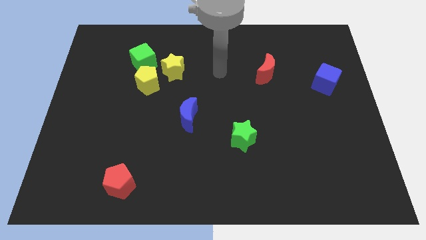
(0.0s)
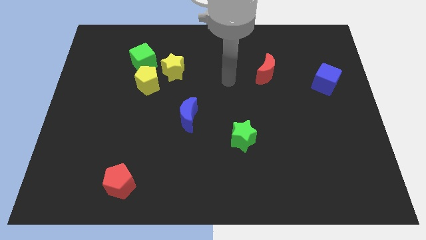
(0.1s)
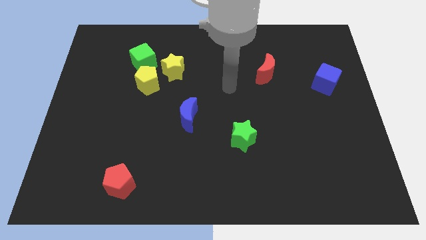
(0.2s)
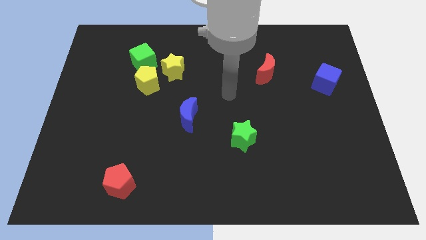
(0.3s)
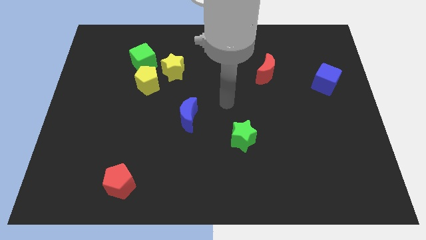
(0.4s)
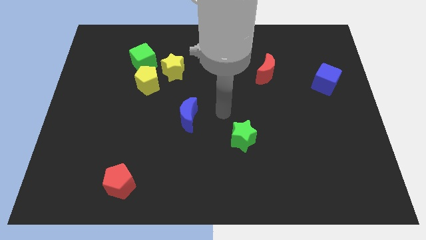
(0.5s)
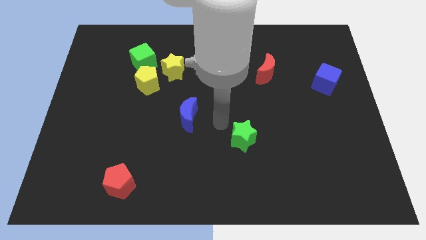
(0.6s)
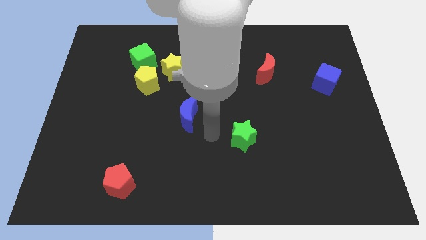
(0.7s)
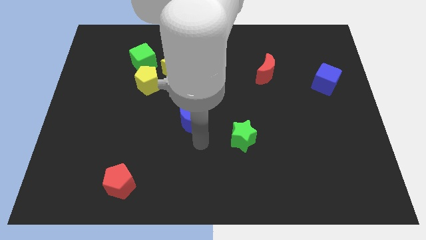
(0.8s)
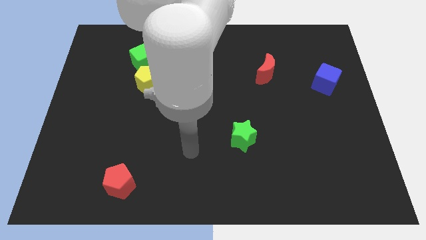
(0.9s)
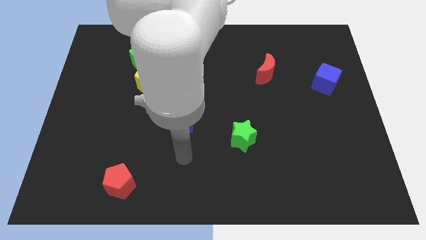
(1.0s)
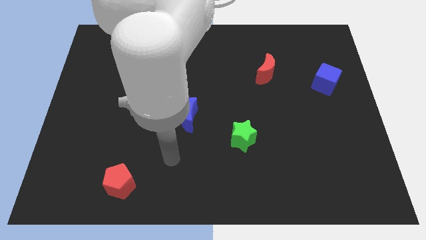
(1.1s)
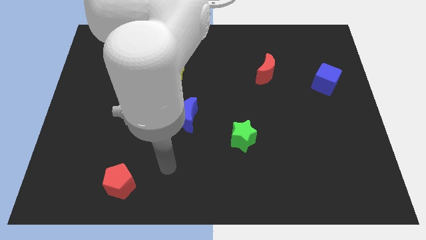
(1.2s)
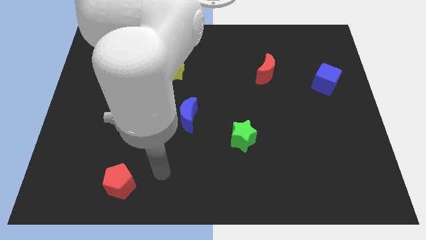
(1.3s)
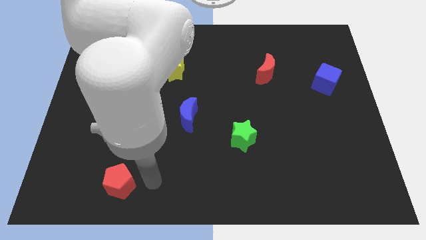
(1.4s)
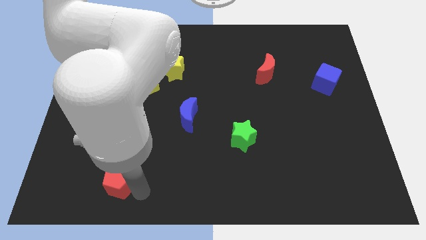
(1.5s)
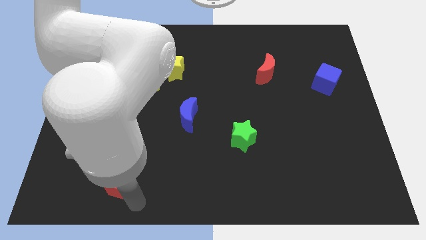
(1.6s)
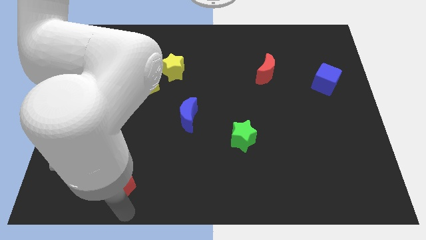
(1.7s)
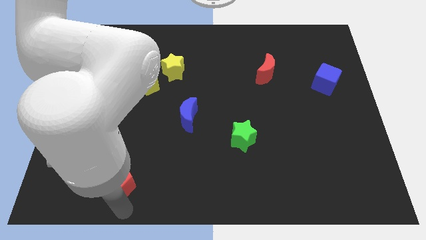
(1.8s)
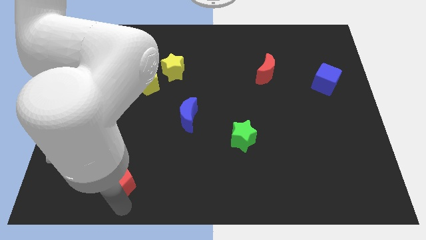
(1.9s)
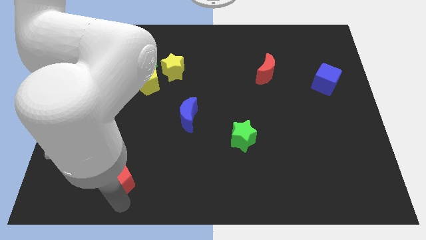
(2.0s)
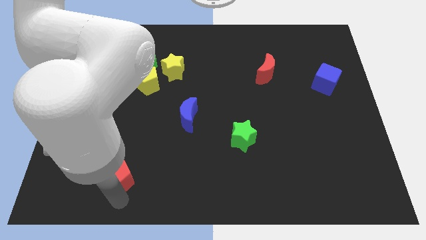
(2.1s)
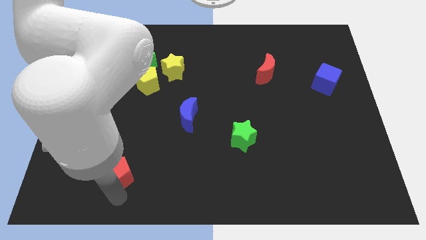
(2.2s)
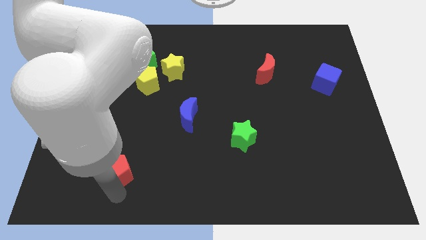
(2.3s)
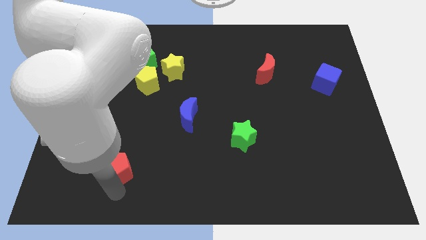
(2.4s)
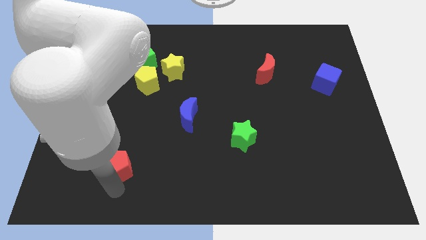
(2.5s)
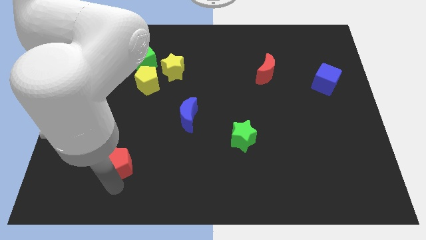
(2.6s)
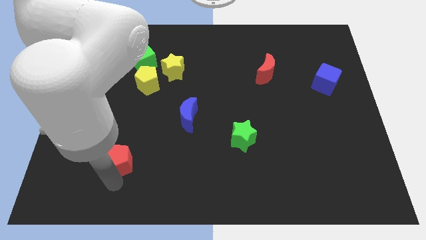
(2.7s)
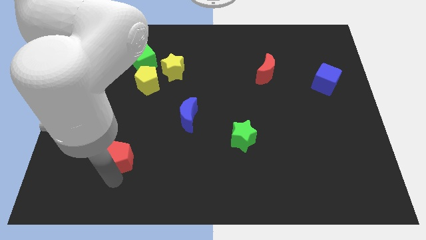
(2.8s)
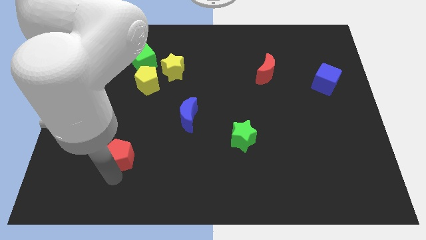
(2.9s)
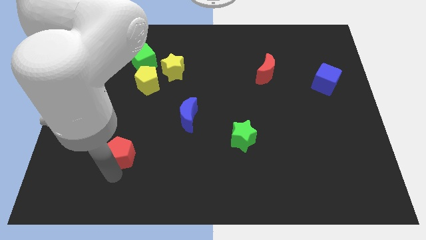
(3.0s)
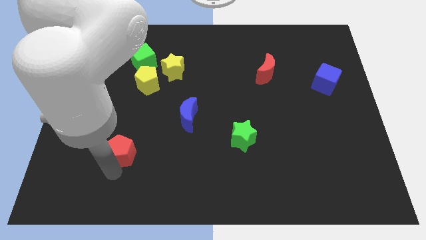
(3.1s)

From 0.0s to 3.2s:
move the red pentagon upwards somewhat

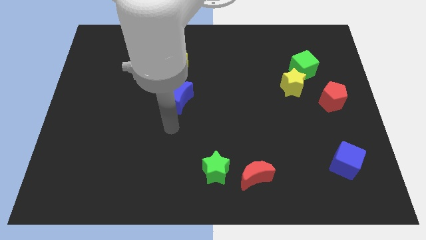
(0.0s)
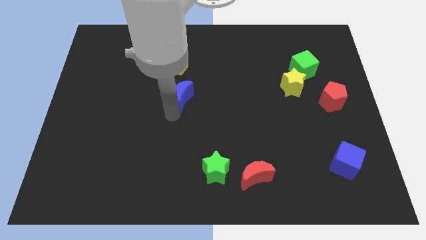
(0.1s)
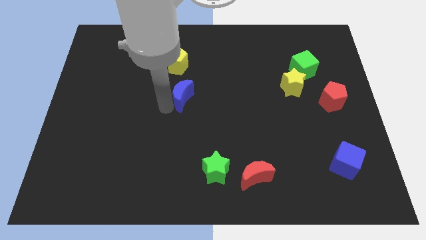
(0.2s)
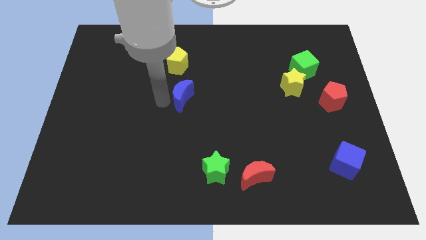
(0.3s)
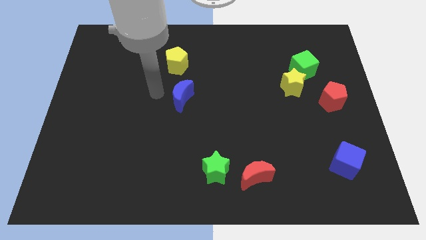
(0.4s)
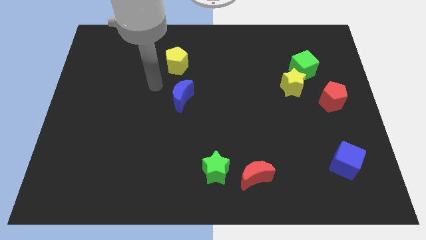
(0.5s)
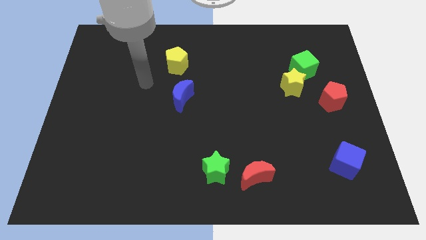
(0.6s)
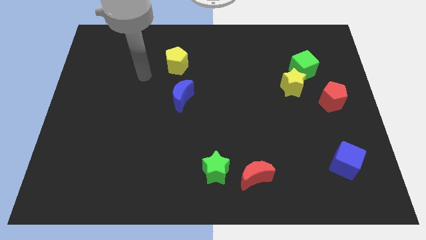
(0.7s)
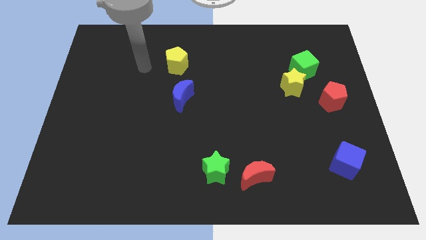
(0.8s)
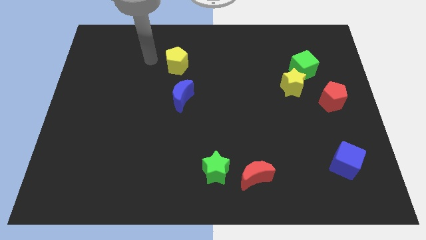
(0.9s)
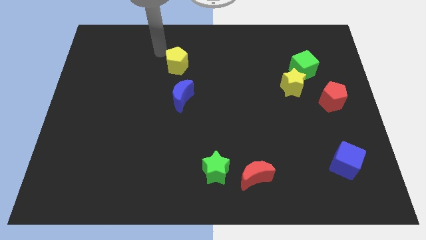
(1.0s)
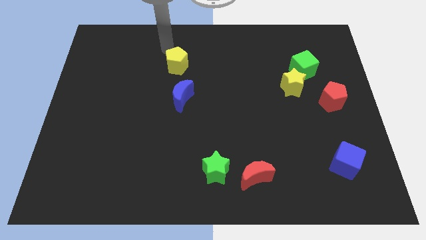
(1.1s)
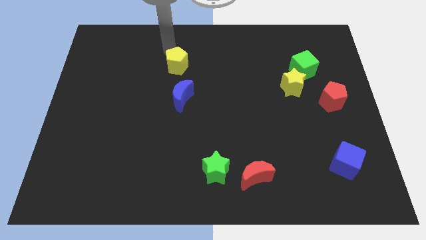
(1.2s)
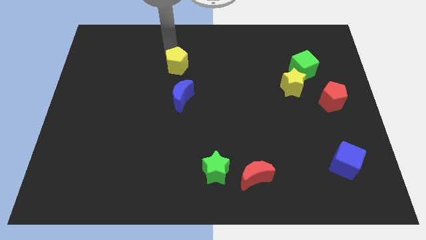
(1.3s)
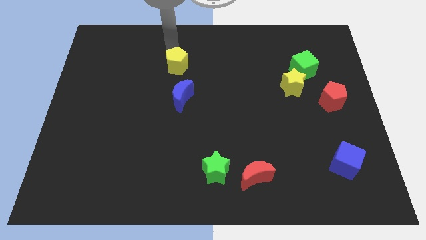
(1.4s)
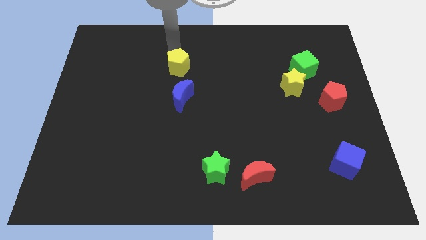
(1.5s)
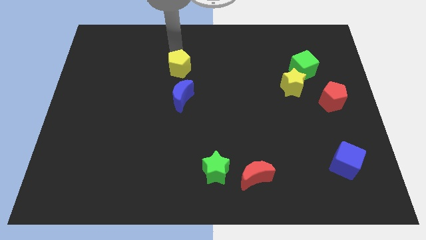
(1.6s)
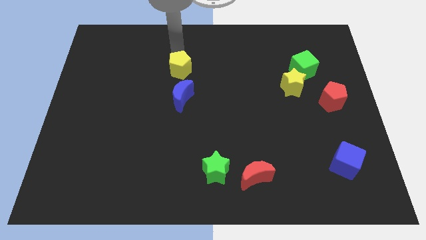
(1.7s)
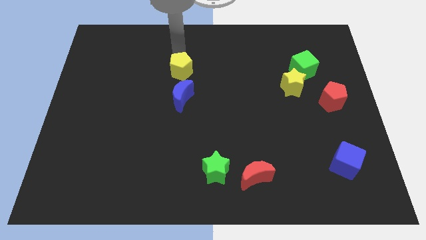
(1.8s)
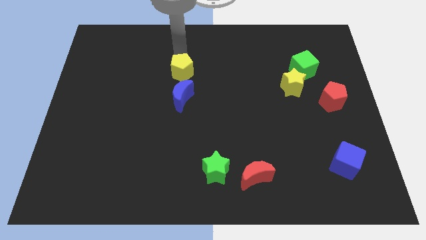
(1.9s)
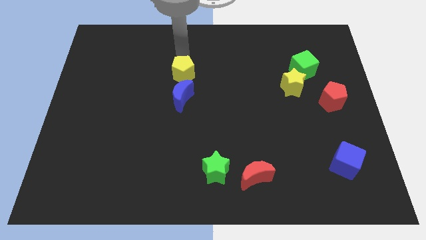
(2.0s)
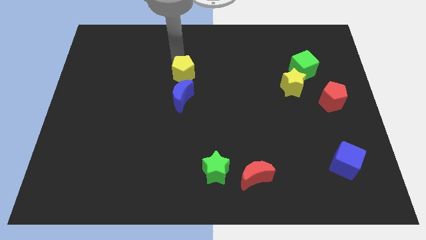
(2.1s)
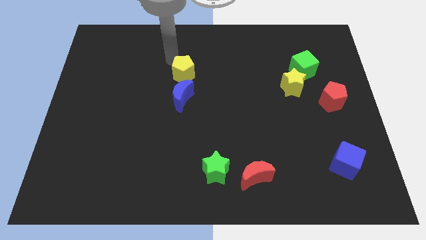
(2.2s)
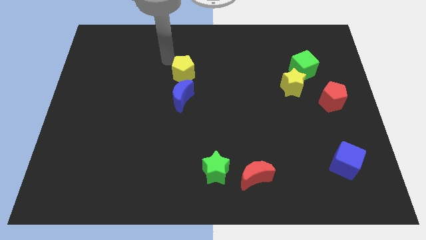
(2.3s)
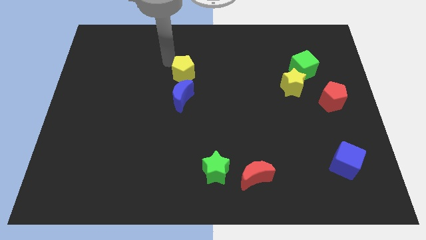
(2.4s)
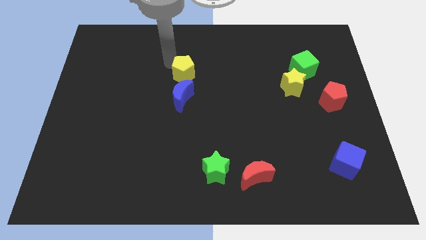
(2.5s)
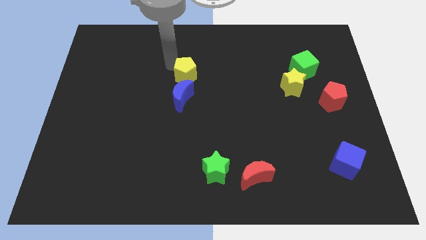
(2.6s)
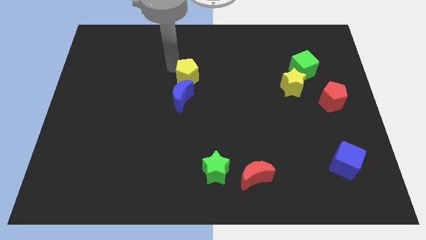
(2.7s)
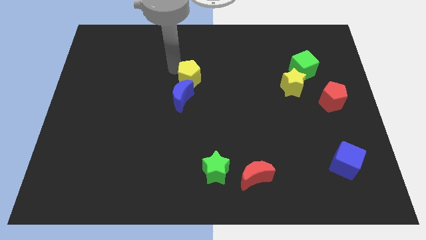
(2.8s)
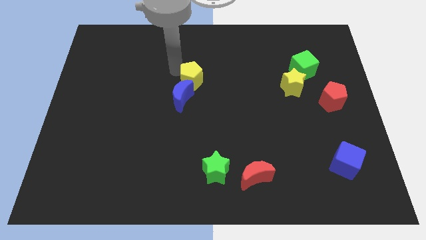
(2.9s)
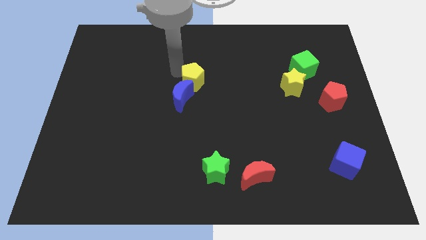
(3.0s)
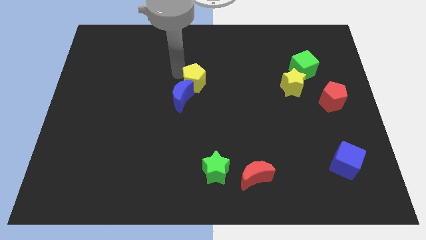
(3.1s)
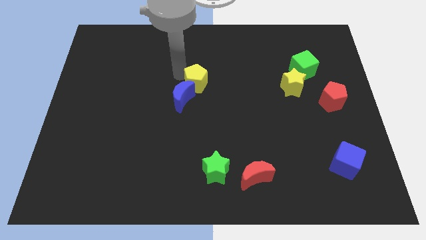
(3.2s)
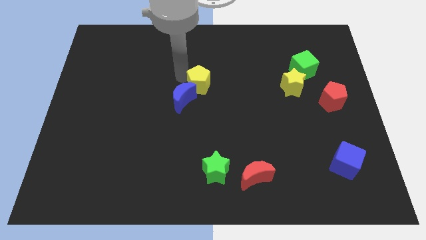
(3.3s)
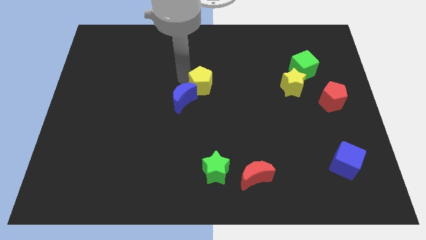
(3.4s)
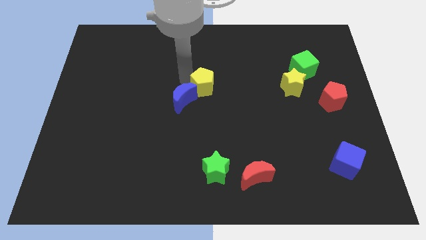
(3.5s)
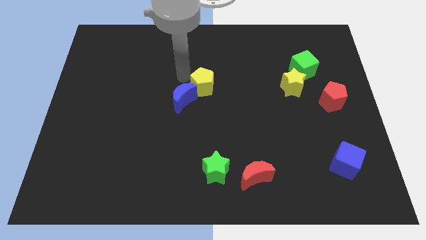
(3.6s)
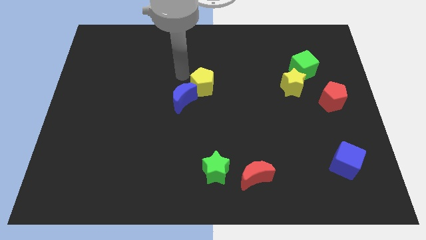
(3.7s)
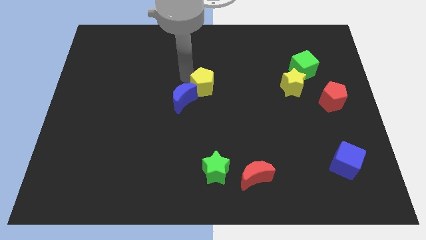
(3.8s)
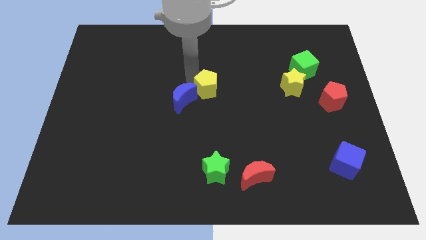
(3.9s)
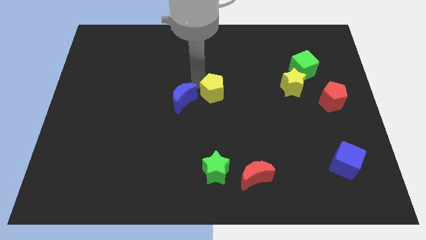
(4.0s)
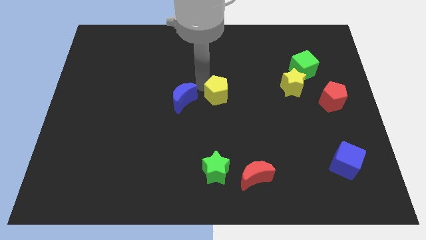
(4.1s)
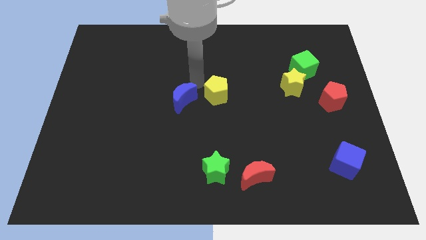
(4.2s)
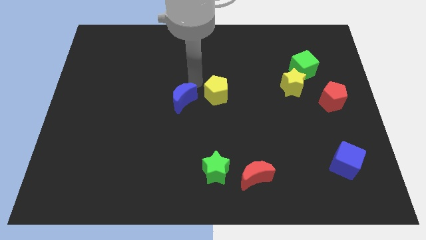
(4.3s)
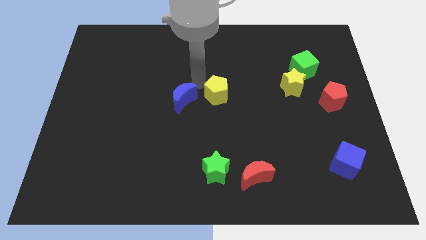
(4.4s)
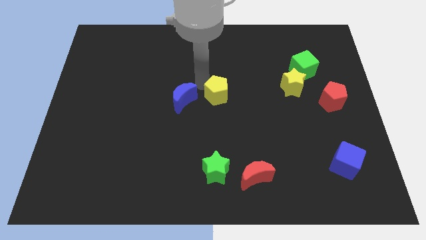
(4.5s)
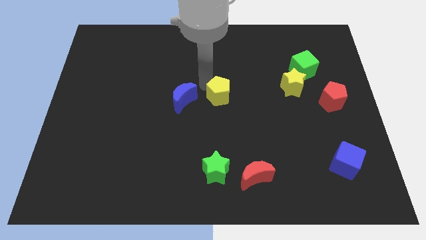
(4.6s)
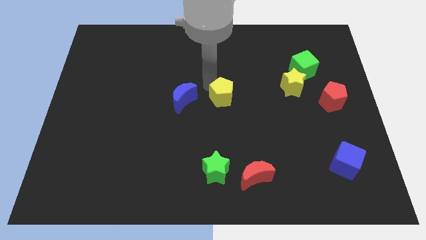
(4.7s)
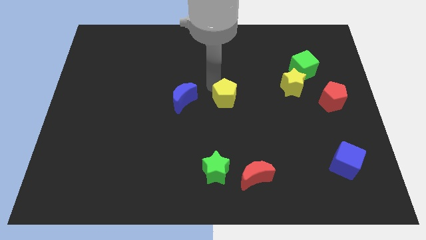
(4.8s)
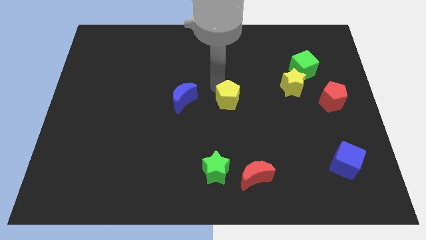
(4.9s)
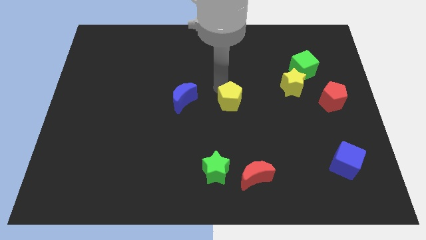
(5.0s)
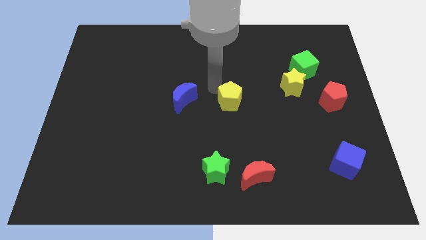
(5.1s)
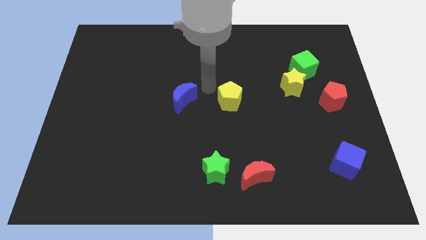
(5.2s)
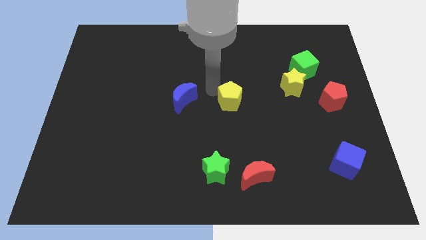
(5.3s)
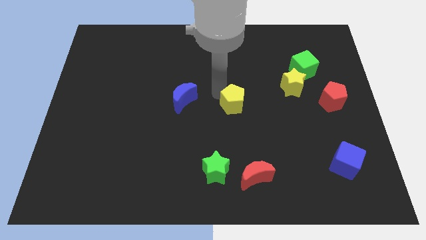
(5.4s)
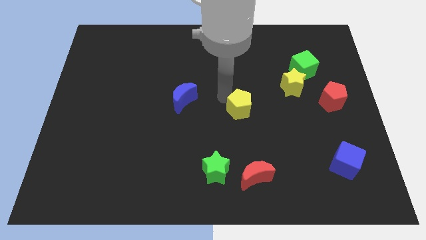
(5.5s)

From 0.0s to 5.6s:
move the yellow pentagon downwards and right
